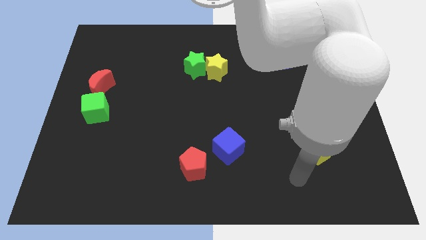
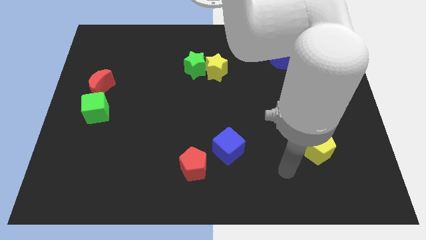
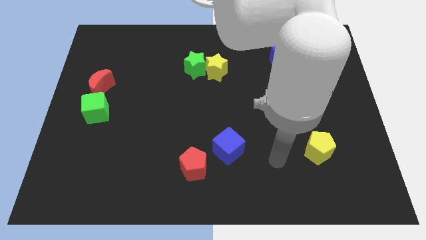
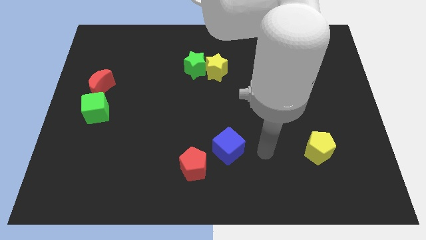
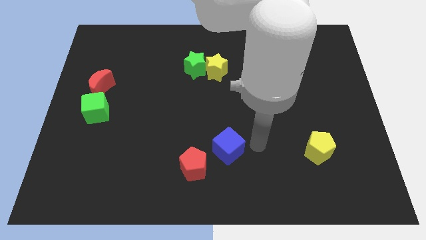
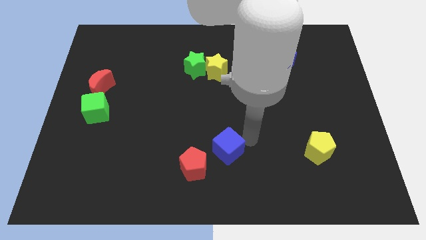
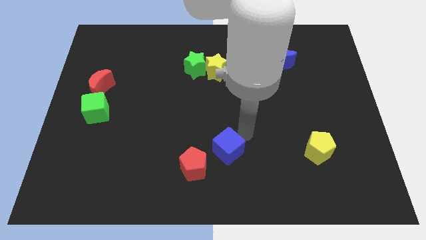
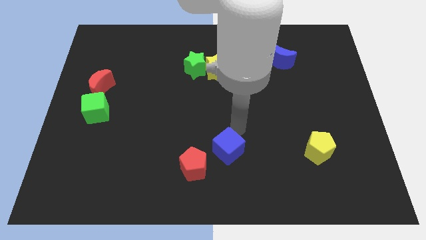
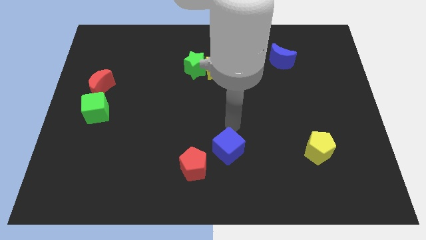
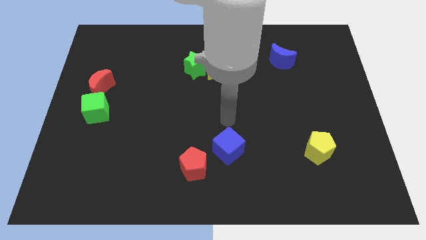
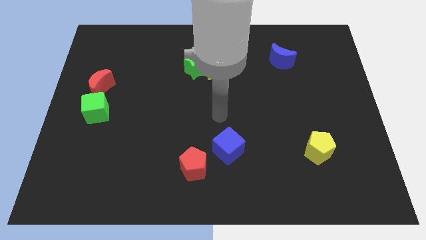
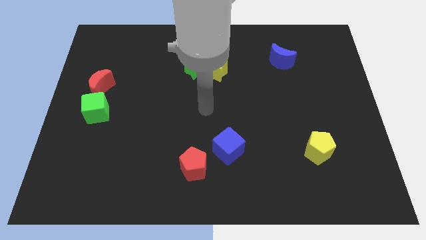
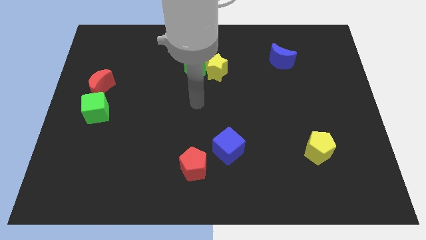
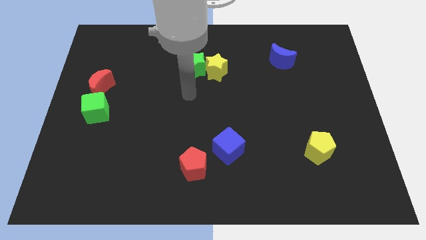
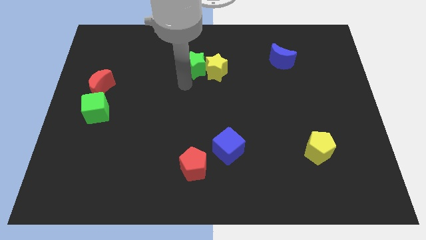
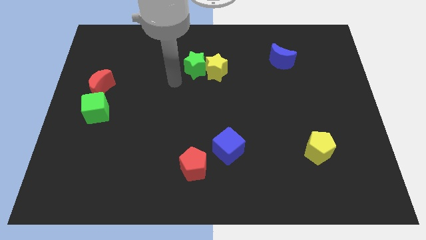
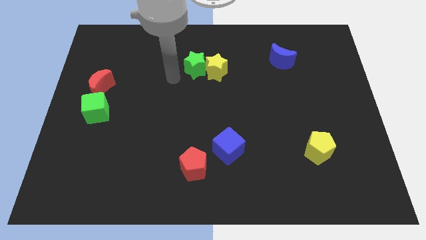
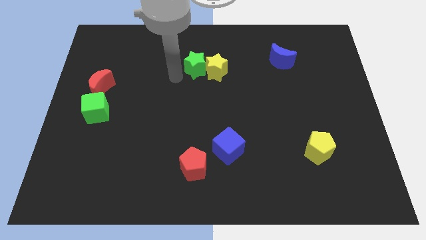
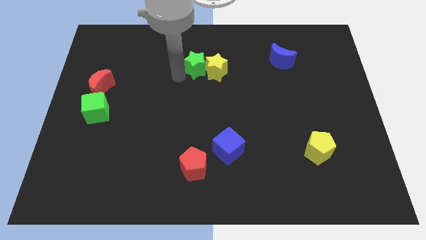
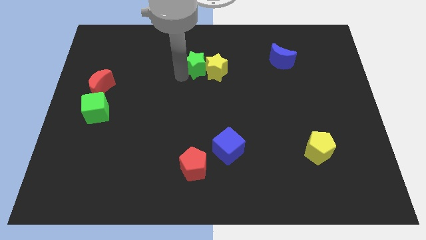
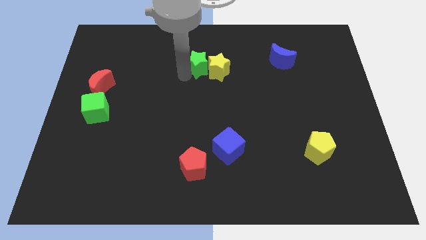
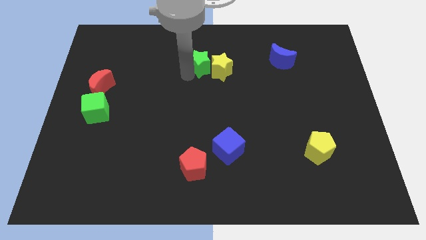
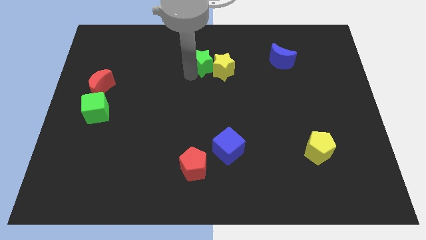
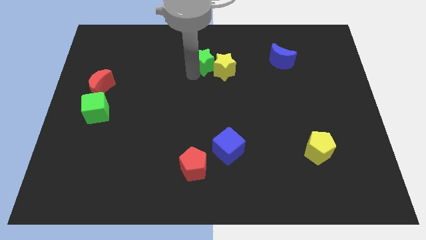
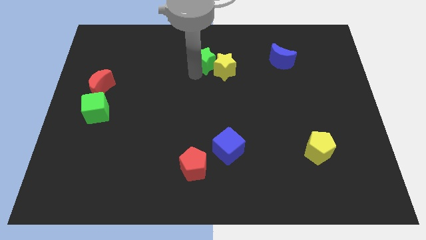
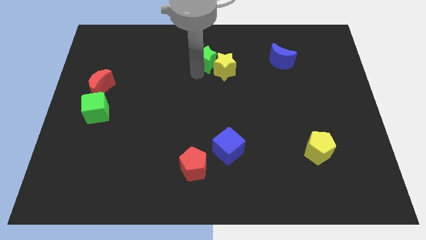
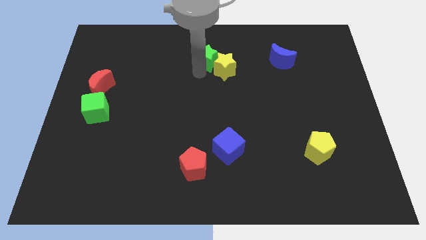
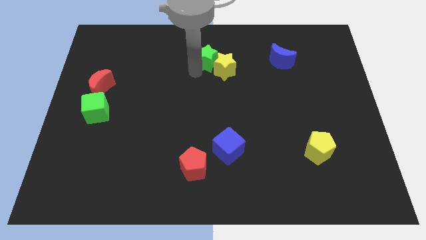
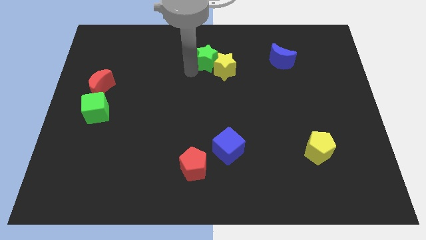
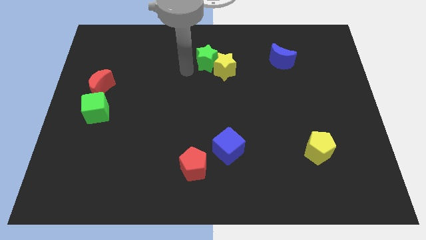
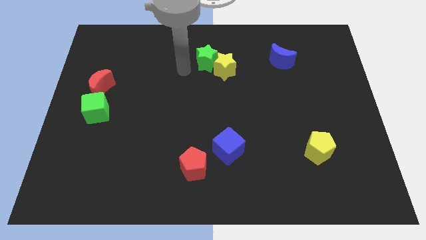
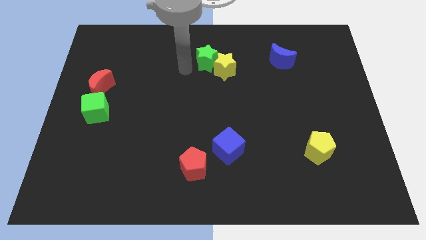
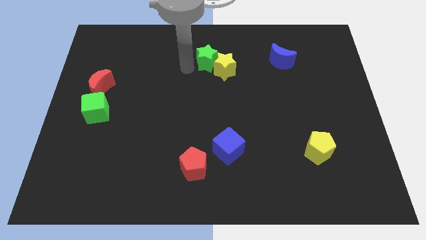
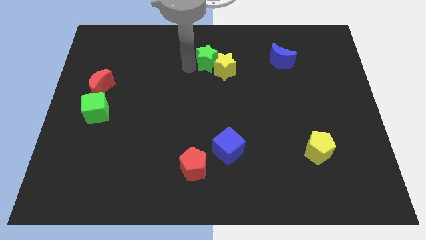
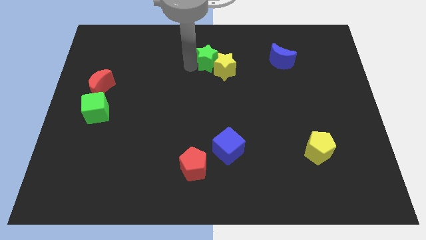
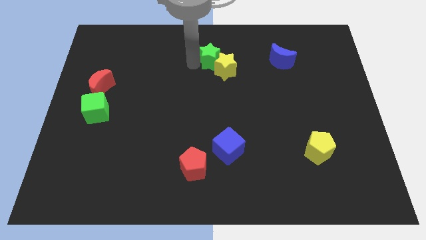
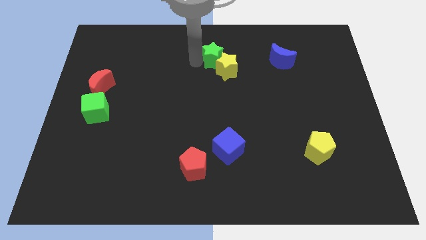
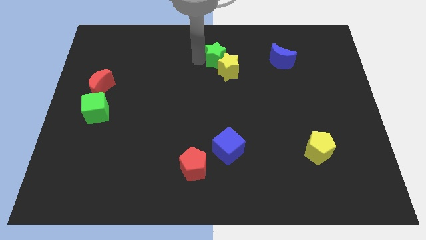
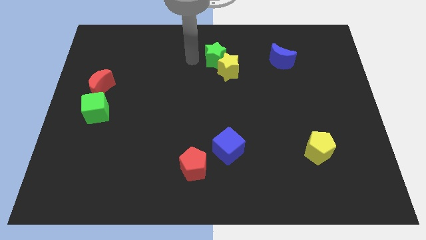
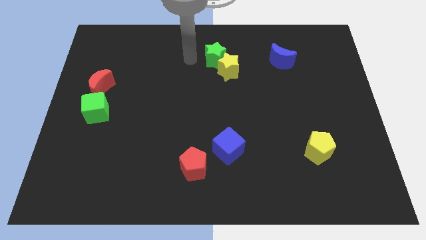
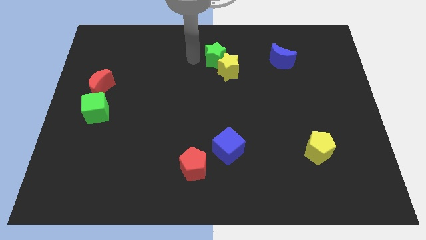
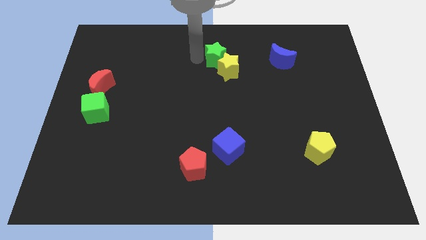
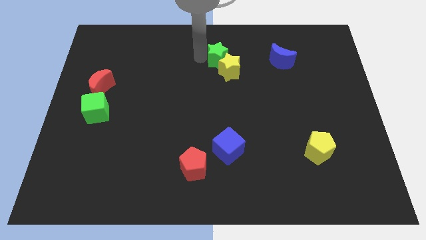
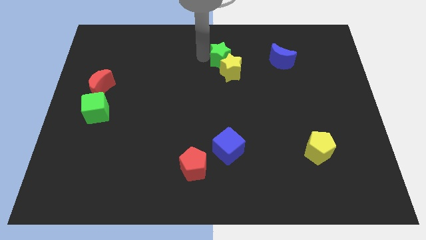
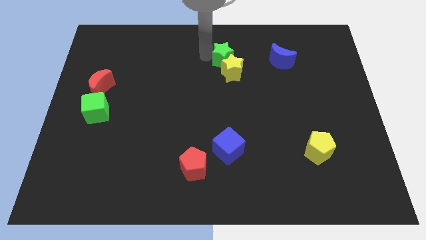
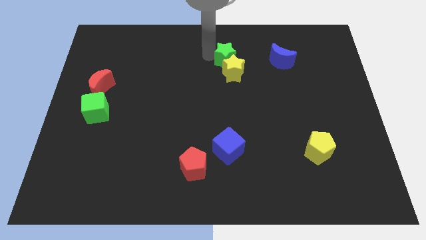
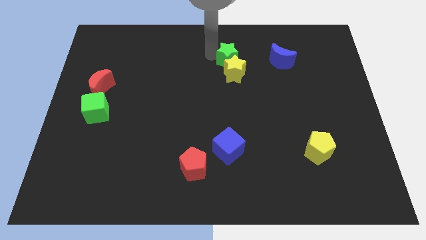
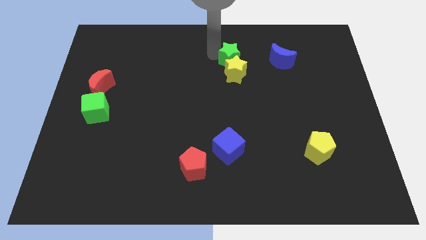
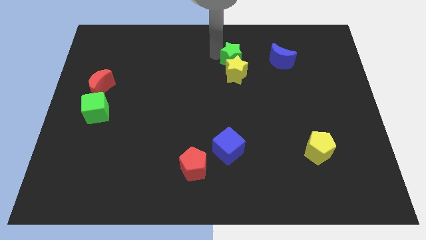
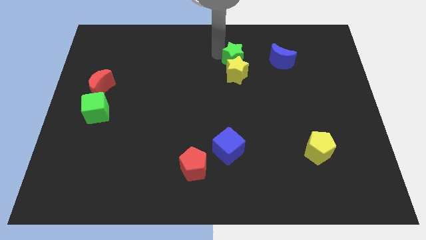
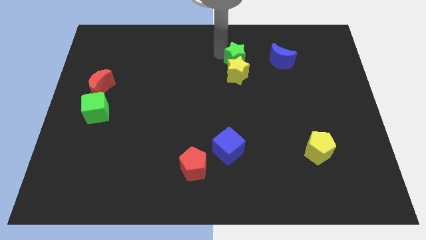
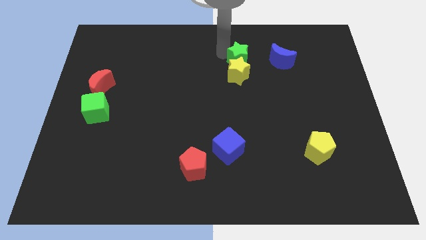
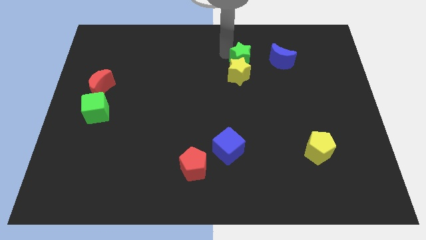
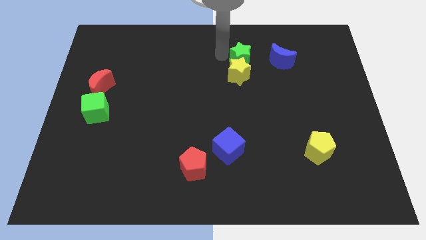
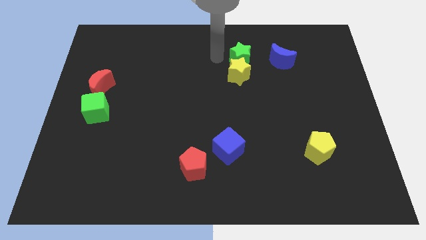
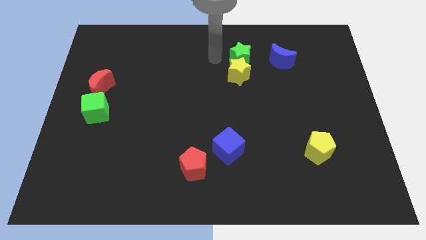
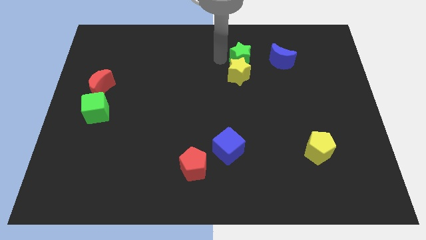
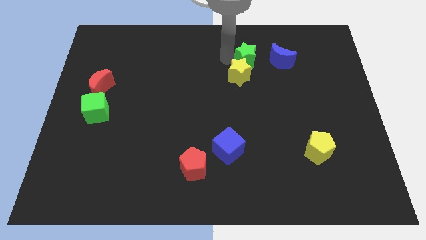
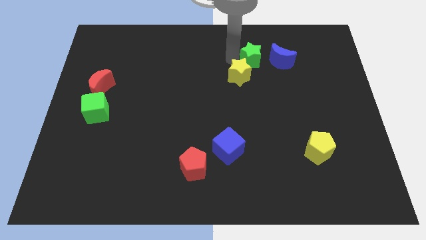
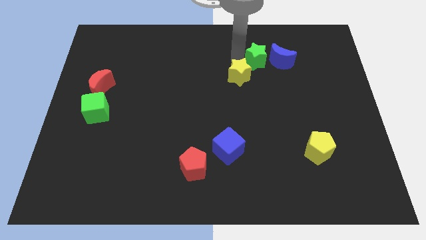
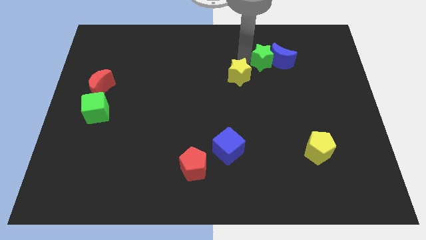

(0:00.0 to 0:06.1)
push the green star to the blue moon

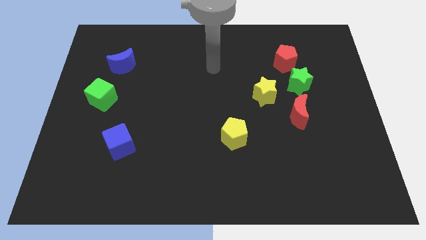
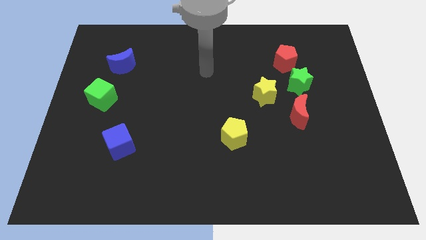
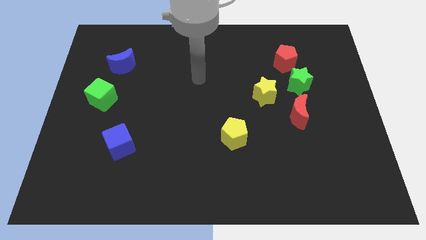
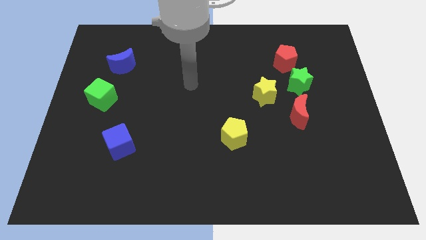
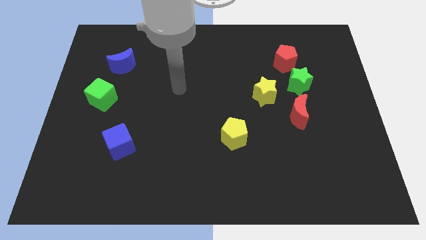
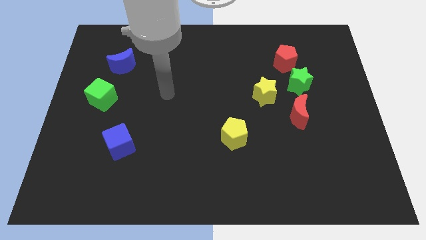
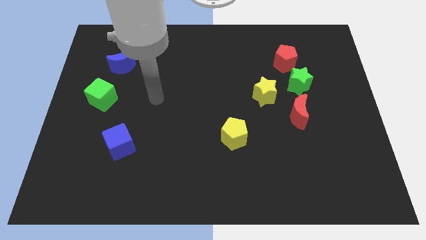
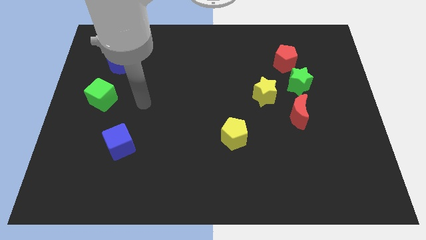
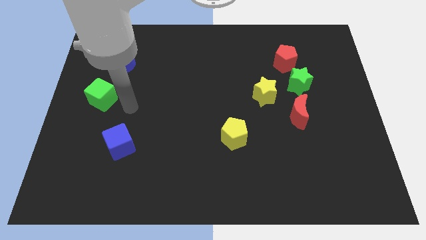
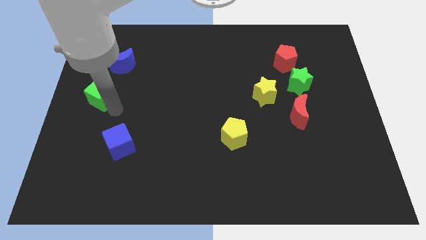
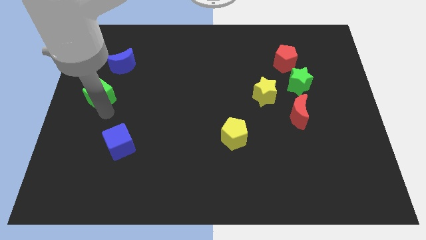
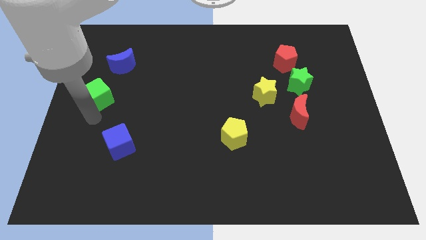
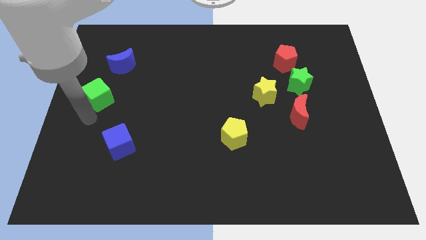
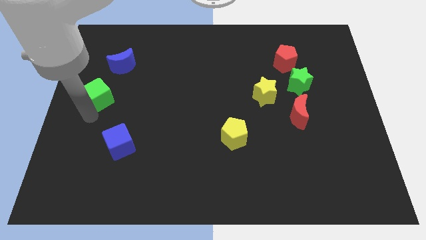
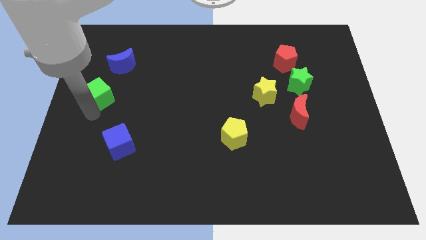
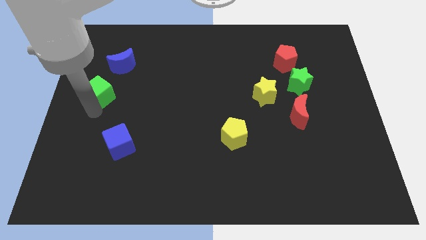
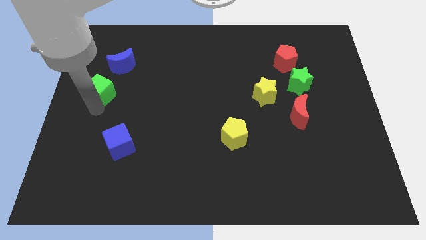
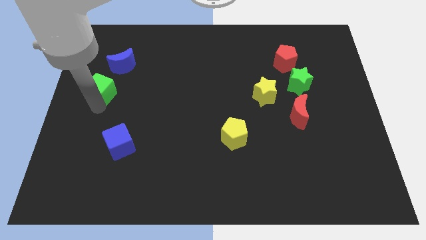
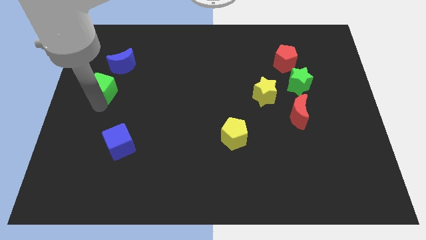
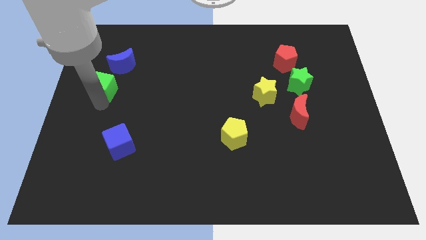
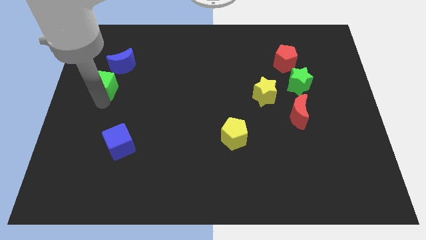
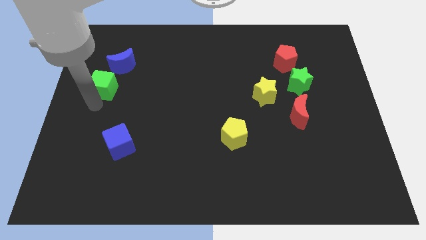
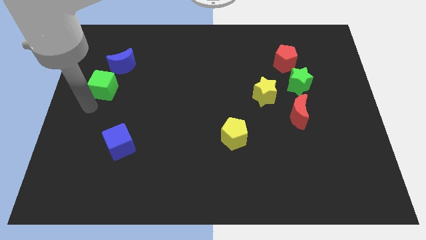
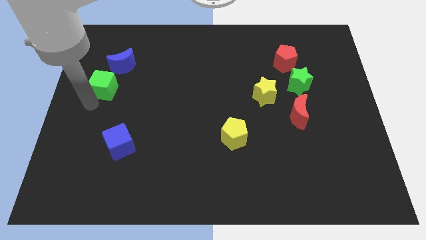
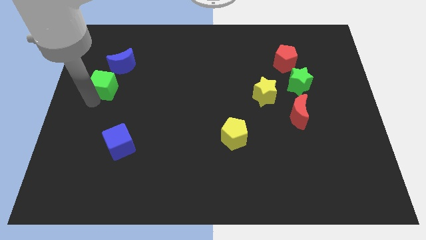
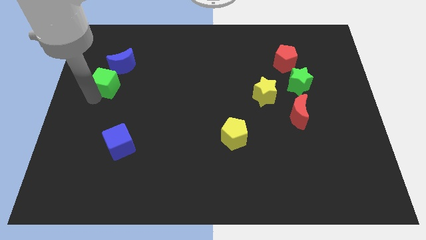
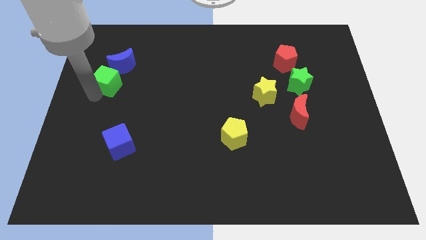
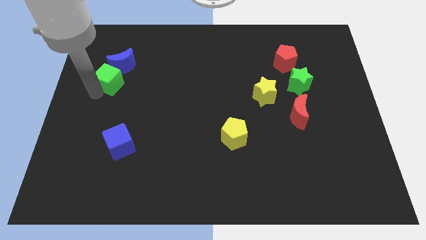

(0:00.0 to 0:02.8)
put the green cube towards the blue moon
